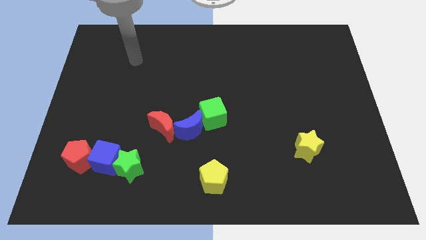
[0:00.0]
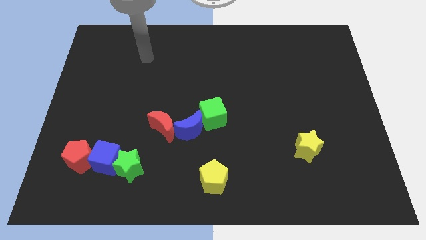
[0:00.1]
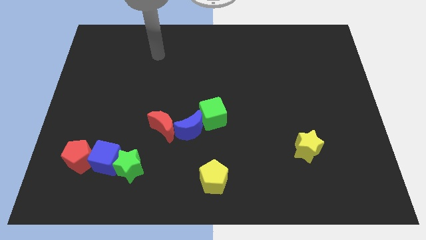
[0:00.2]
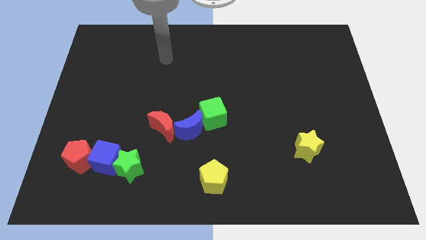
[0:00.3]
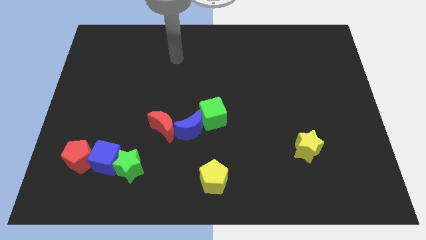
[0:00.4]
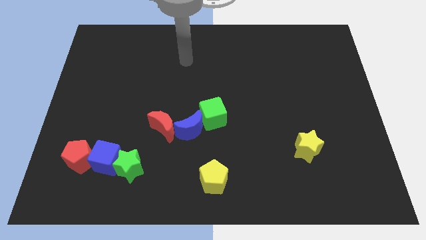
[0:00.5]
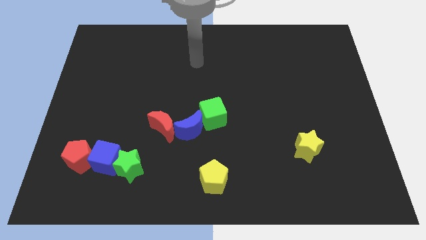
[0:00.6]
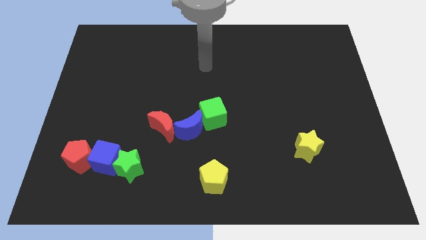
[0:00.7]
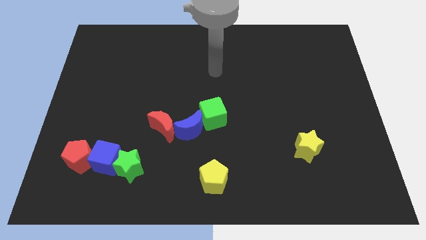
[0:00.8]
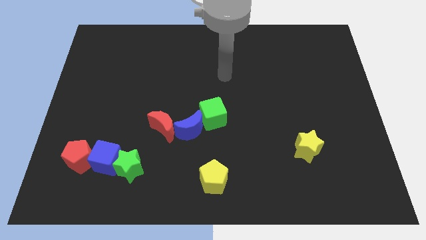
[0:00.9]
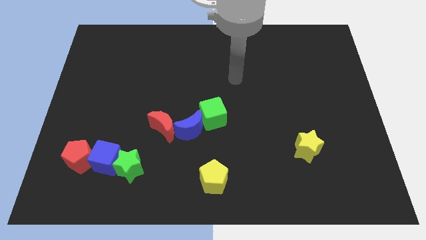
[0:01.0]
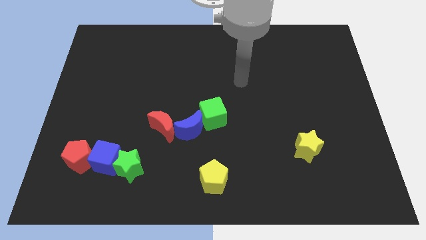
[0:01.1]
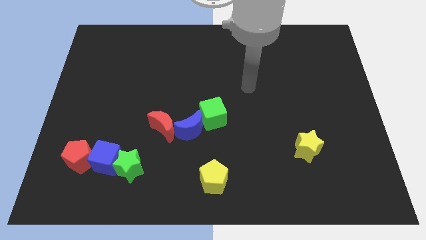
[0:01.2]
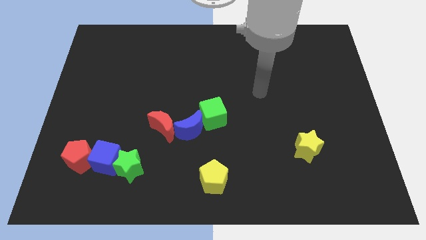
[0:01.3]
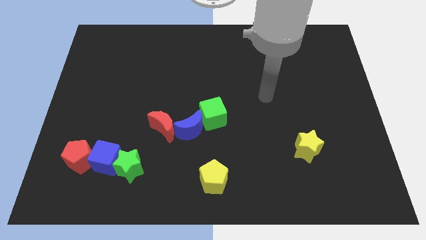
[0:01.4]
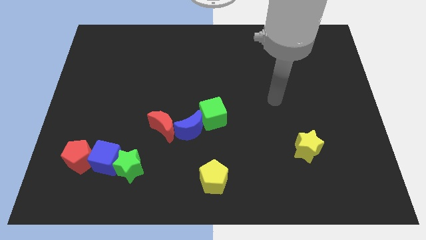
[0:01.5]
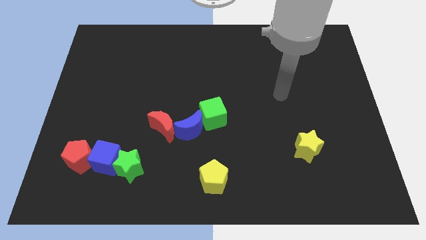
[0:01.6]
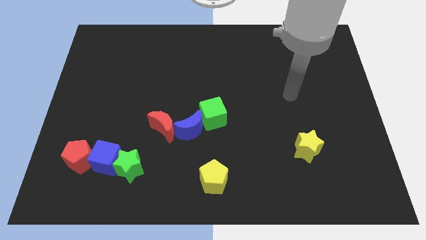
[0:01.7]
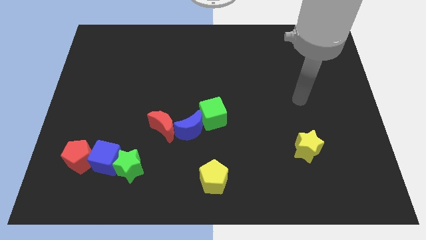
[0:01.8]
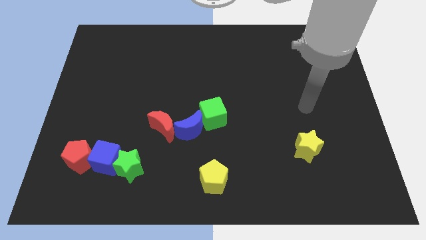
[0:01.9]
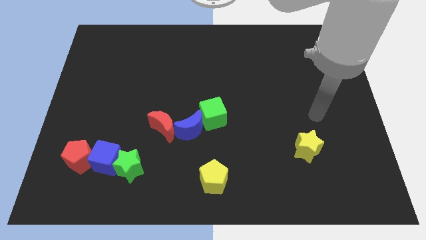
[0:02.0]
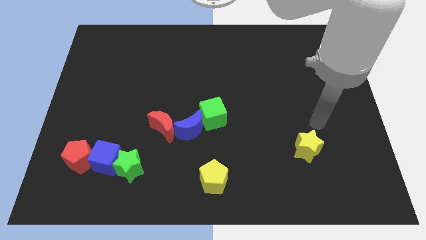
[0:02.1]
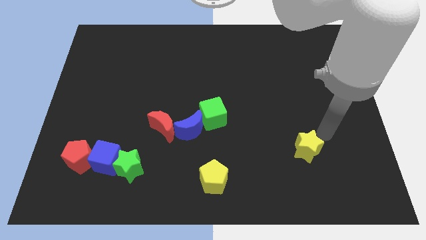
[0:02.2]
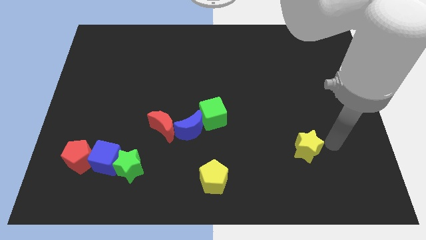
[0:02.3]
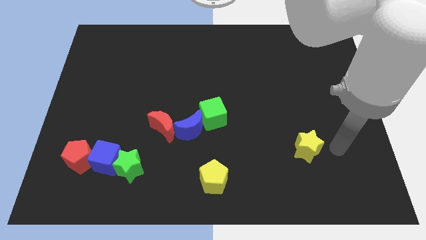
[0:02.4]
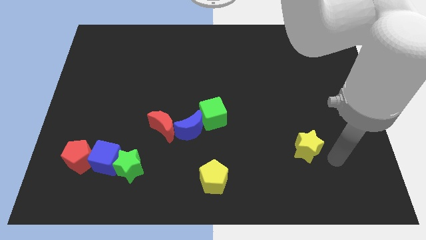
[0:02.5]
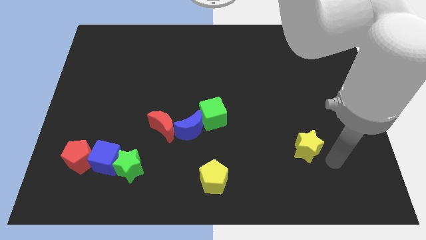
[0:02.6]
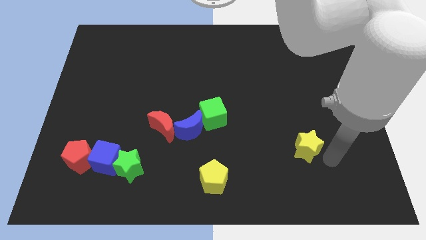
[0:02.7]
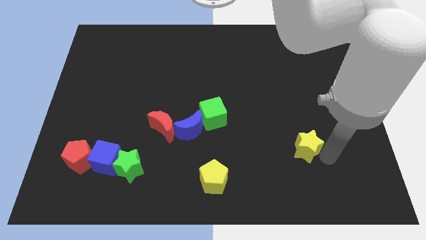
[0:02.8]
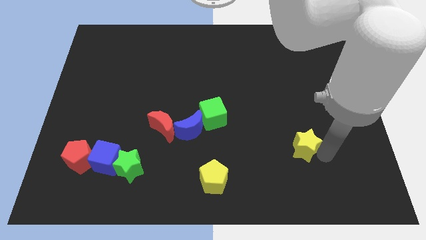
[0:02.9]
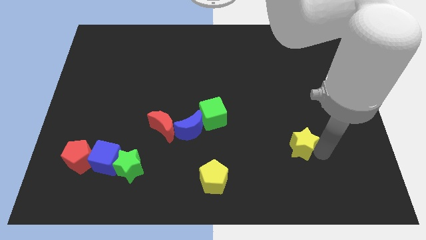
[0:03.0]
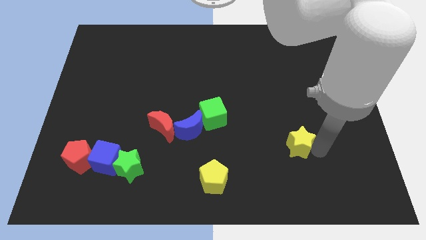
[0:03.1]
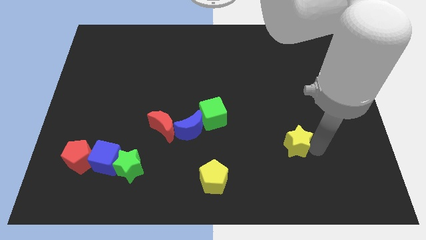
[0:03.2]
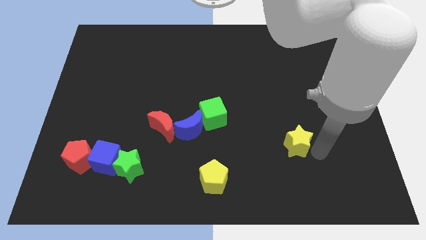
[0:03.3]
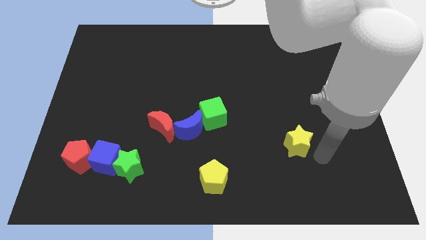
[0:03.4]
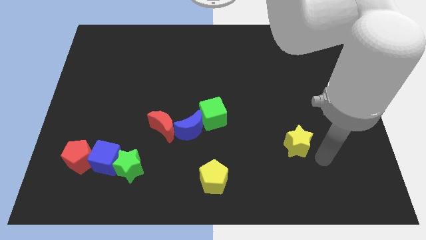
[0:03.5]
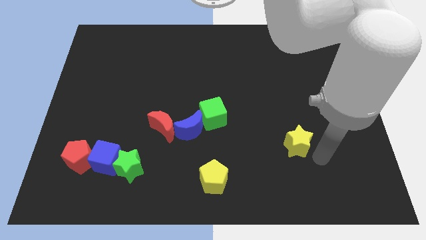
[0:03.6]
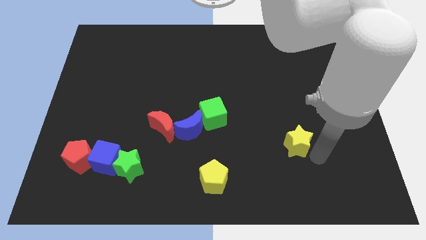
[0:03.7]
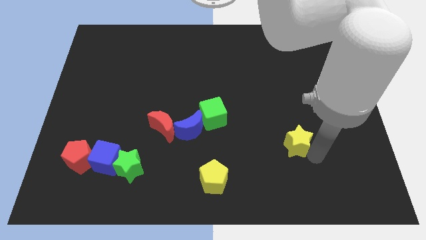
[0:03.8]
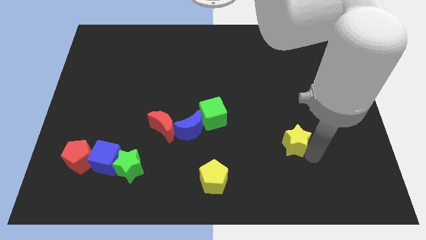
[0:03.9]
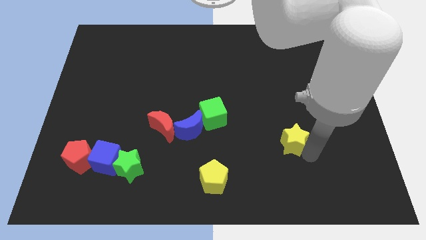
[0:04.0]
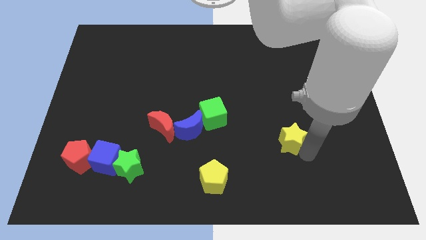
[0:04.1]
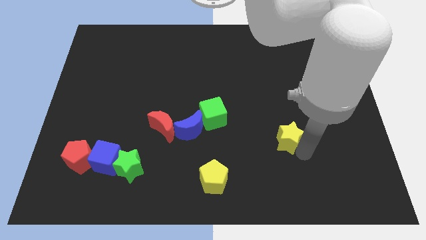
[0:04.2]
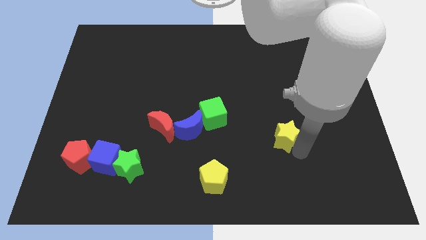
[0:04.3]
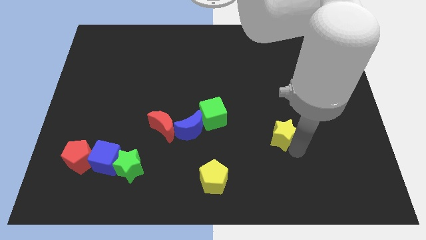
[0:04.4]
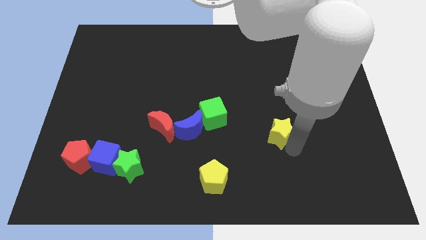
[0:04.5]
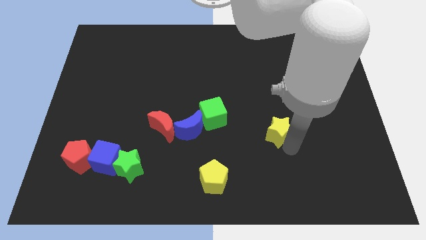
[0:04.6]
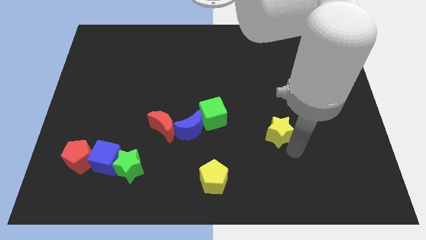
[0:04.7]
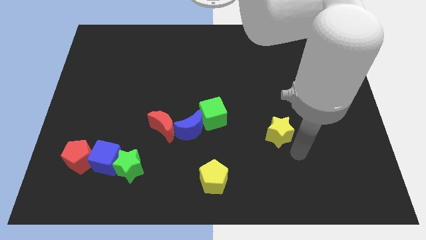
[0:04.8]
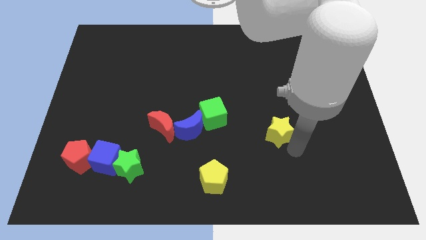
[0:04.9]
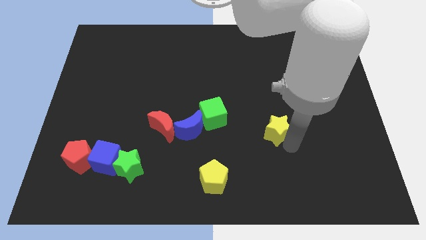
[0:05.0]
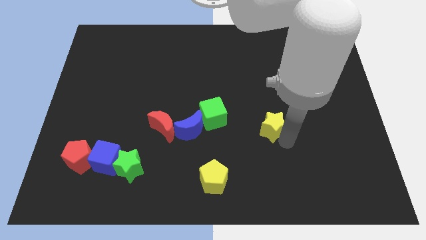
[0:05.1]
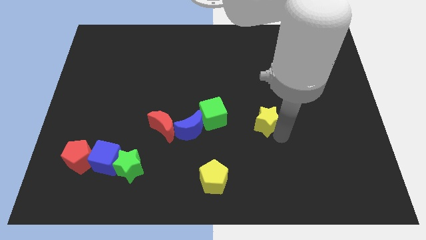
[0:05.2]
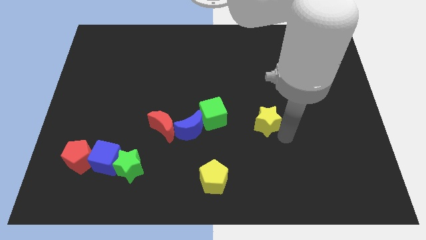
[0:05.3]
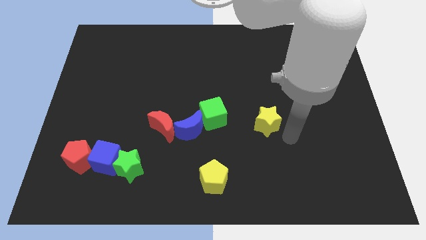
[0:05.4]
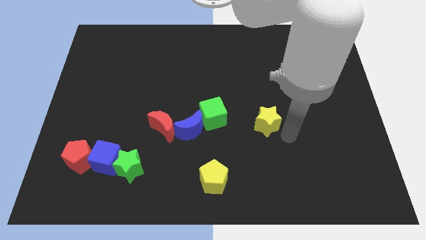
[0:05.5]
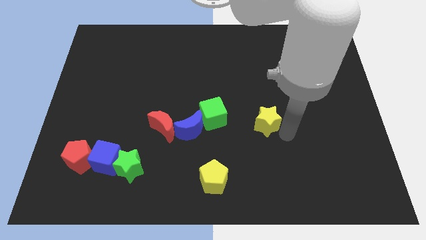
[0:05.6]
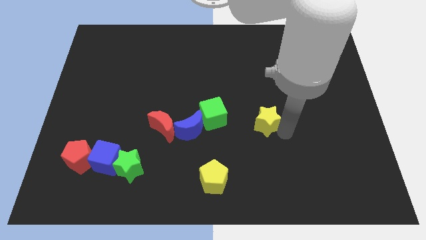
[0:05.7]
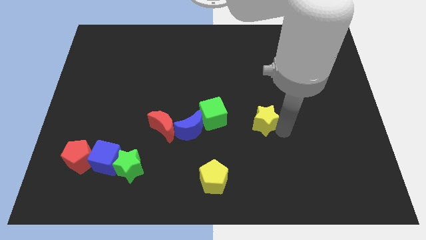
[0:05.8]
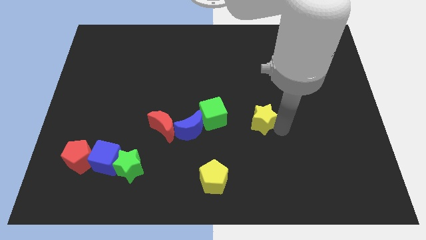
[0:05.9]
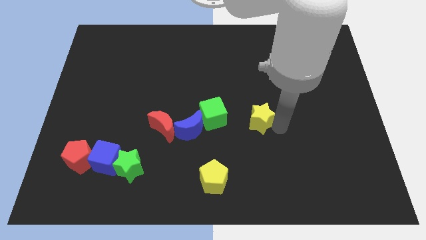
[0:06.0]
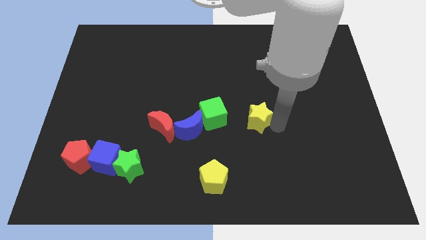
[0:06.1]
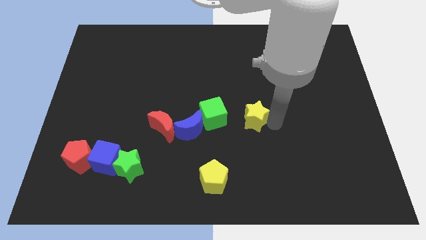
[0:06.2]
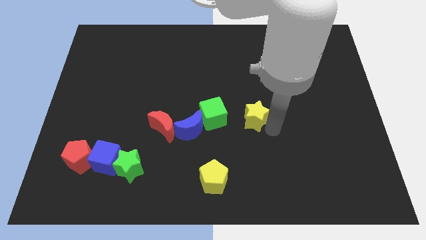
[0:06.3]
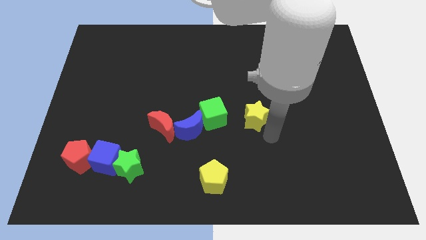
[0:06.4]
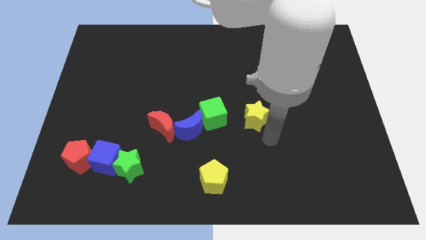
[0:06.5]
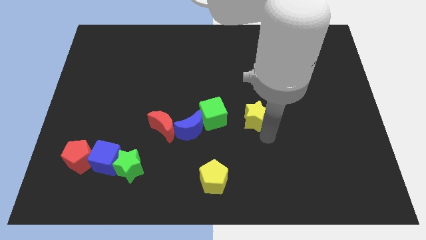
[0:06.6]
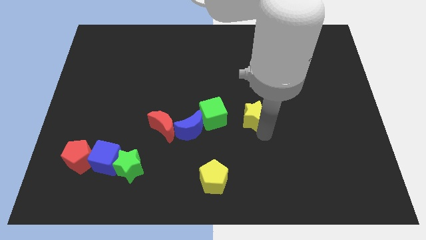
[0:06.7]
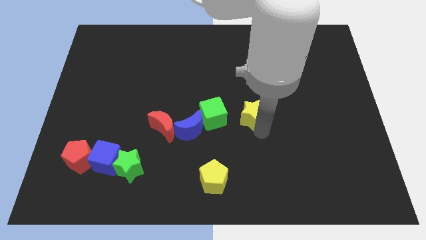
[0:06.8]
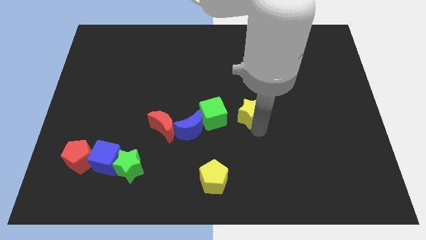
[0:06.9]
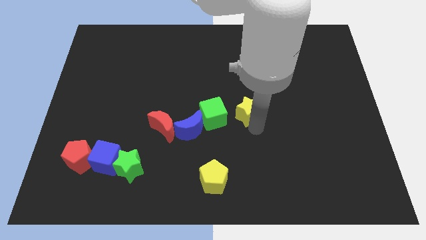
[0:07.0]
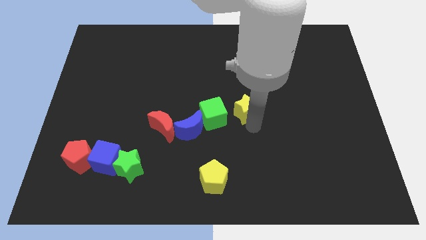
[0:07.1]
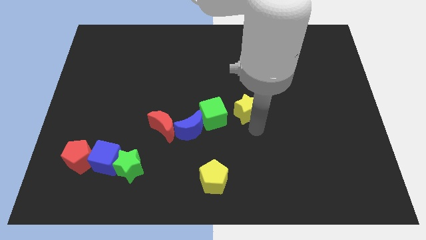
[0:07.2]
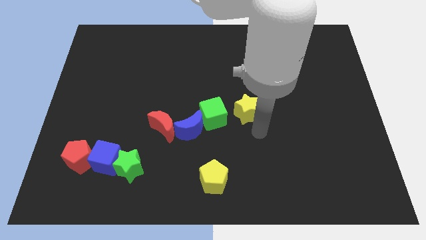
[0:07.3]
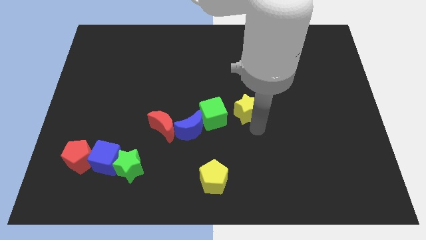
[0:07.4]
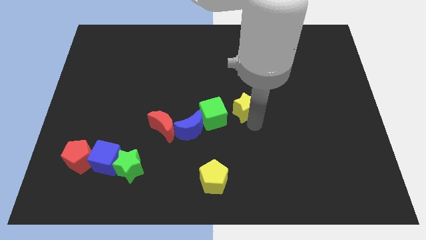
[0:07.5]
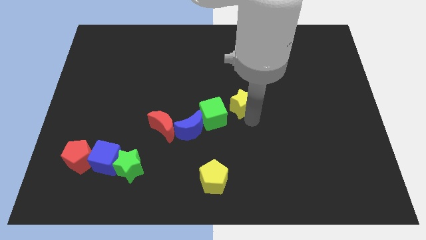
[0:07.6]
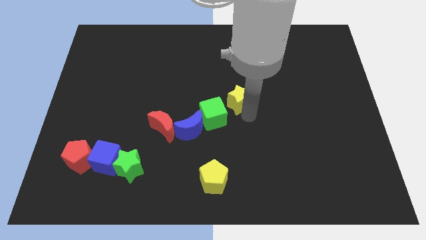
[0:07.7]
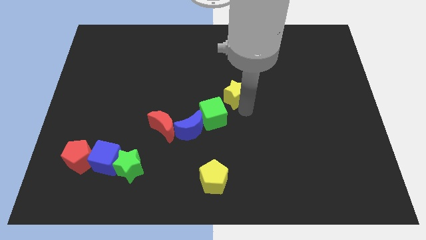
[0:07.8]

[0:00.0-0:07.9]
slide the yellow star upwards and to the left
